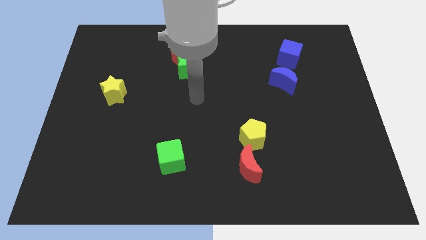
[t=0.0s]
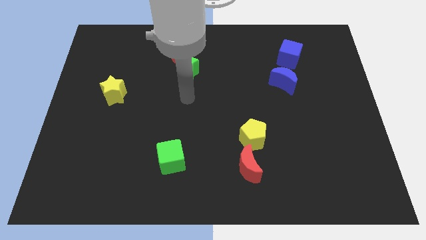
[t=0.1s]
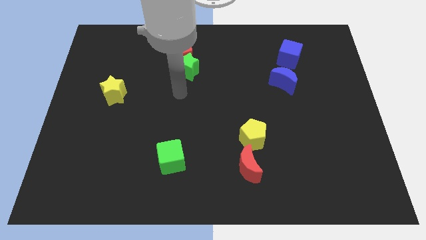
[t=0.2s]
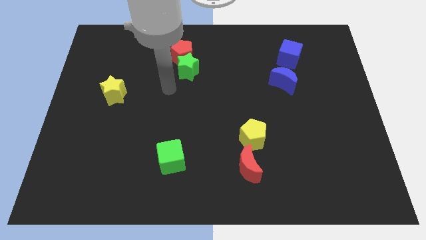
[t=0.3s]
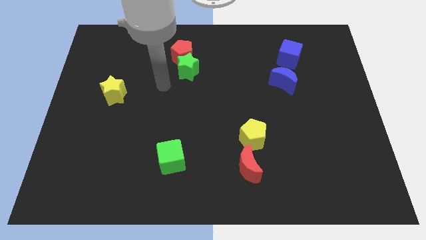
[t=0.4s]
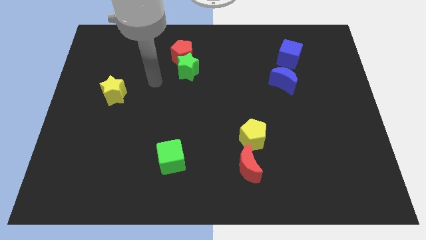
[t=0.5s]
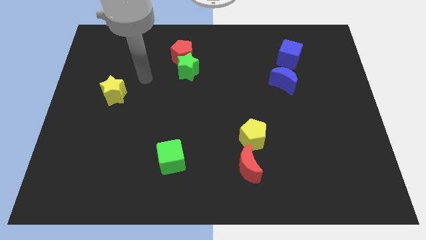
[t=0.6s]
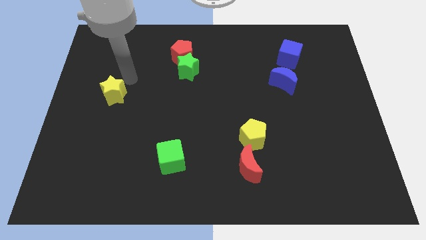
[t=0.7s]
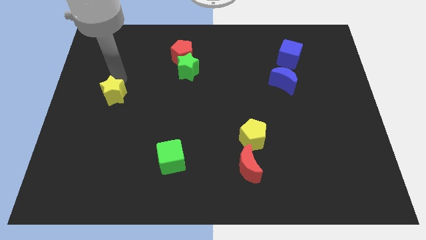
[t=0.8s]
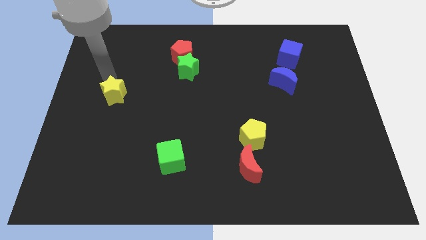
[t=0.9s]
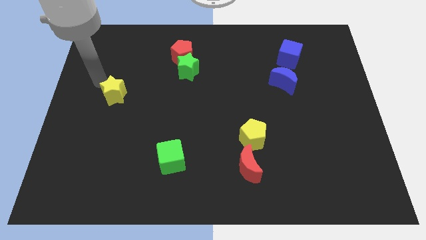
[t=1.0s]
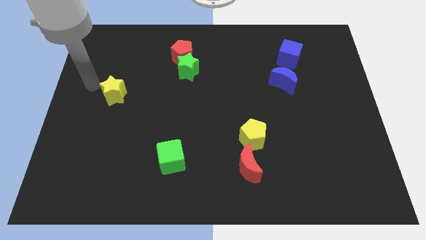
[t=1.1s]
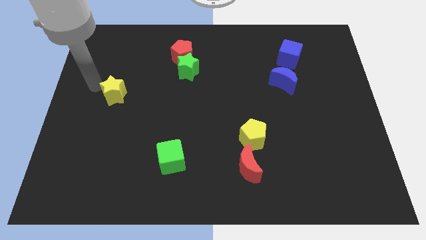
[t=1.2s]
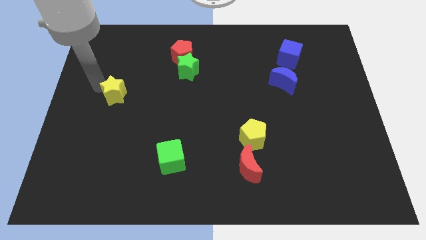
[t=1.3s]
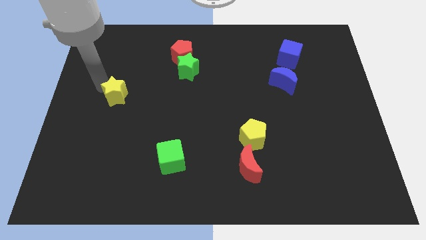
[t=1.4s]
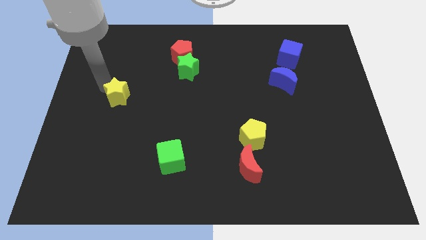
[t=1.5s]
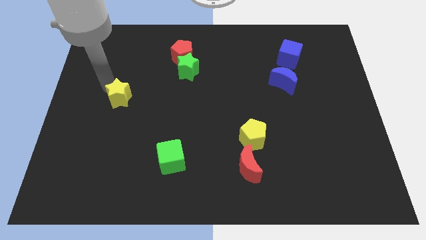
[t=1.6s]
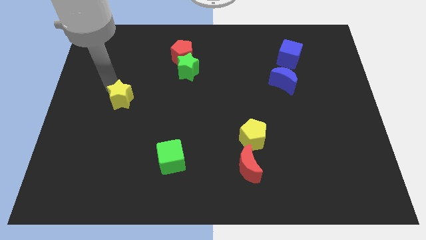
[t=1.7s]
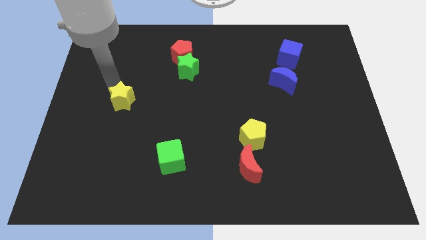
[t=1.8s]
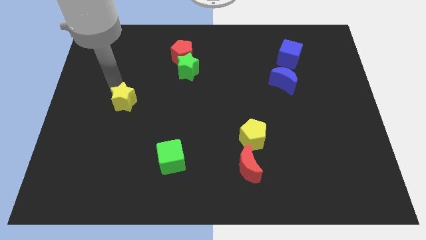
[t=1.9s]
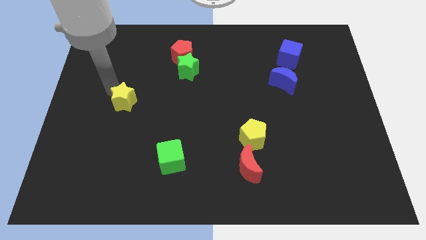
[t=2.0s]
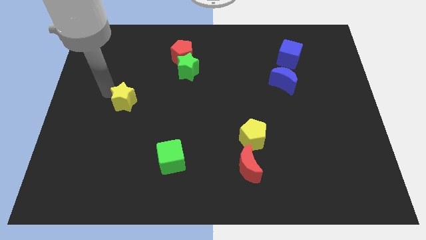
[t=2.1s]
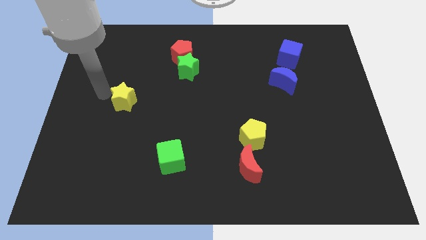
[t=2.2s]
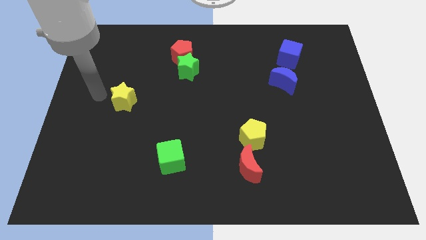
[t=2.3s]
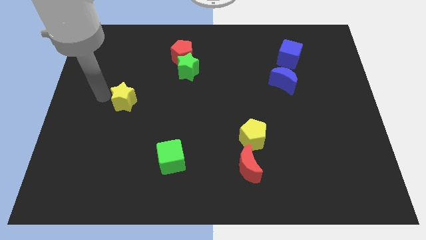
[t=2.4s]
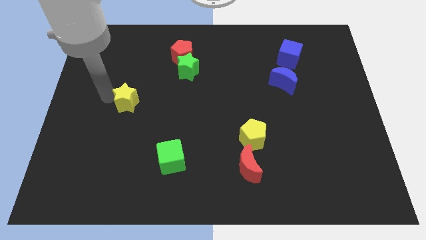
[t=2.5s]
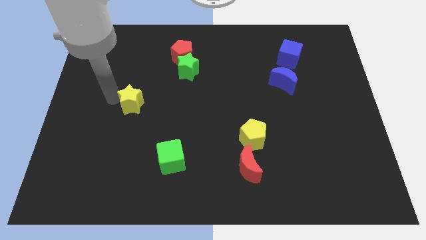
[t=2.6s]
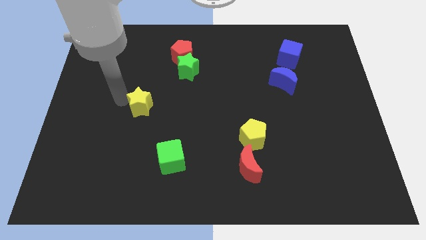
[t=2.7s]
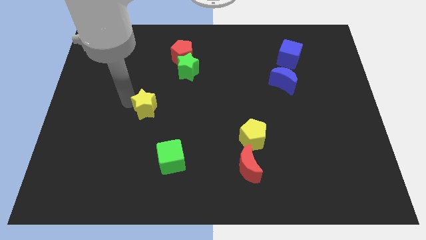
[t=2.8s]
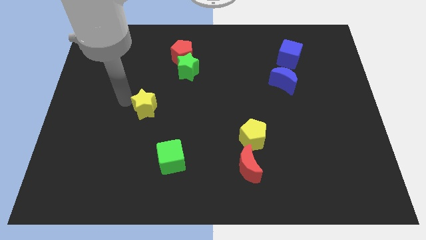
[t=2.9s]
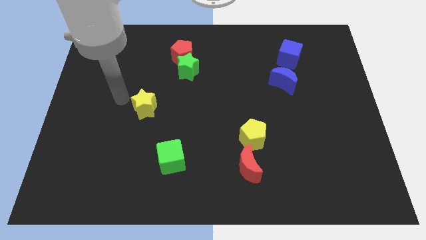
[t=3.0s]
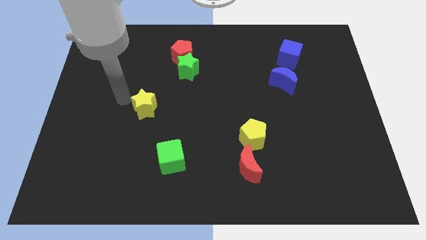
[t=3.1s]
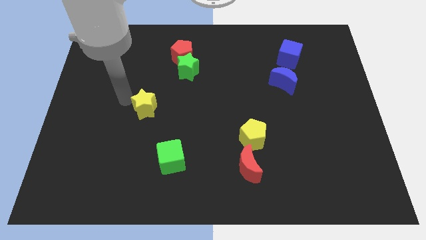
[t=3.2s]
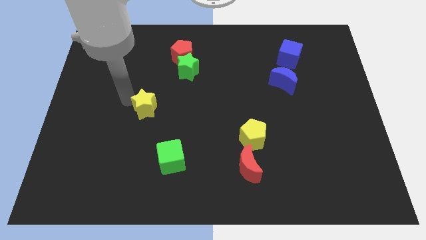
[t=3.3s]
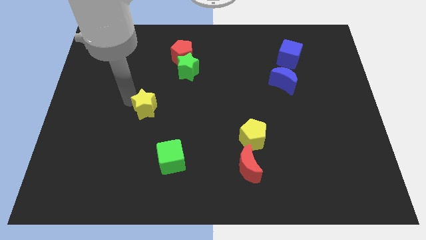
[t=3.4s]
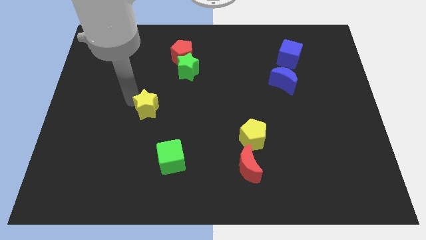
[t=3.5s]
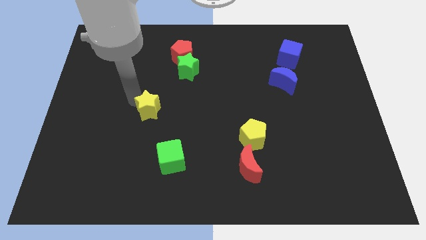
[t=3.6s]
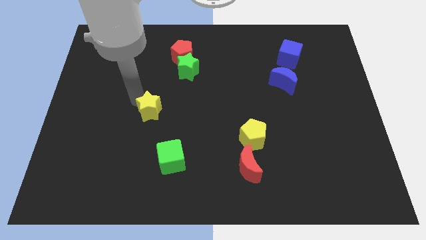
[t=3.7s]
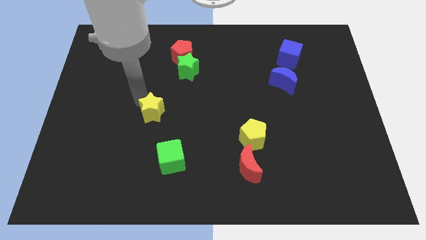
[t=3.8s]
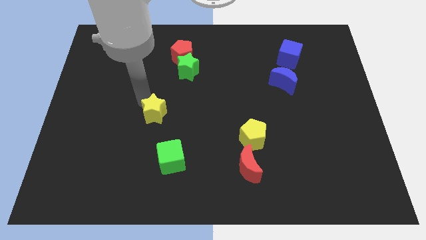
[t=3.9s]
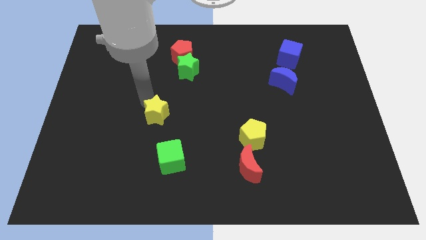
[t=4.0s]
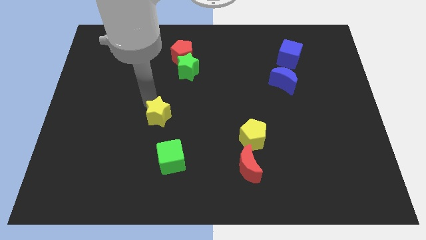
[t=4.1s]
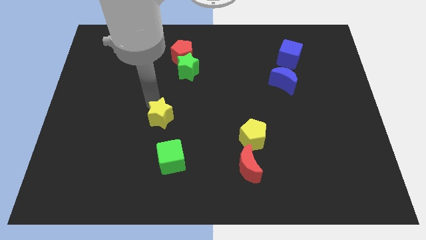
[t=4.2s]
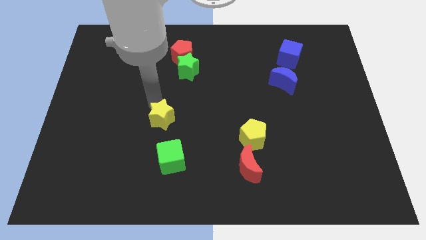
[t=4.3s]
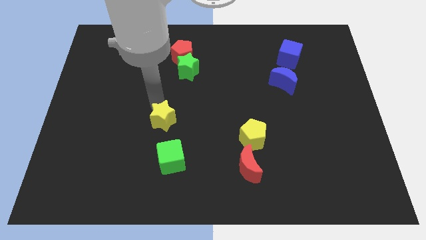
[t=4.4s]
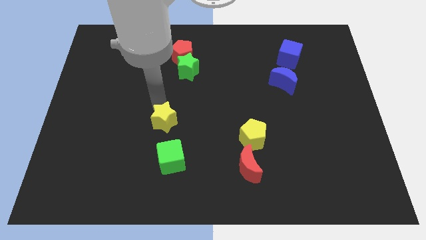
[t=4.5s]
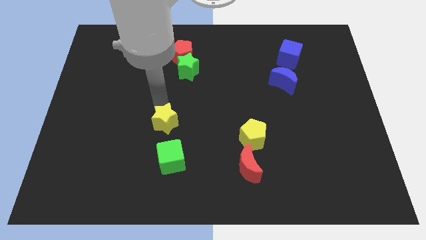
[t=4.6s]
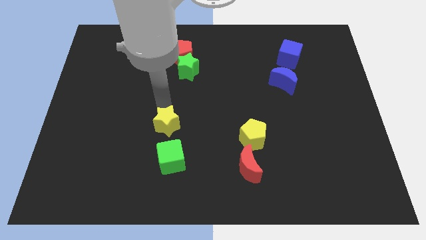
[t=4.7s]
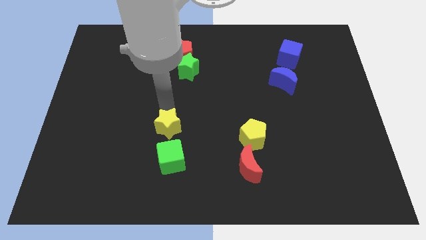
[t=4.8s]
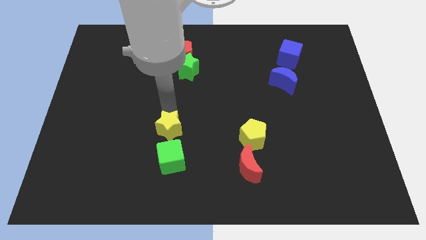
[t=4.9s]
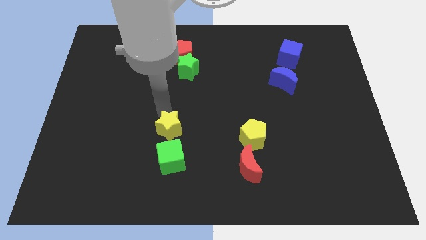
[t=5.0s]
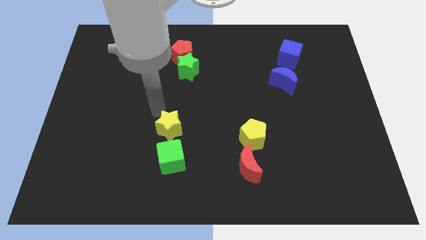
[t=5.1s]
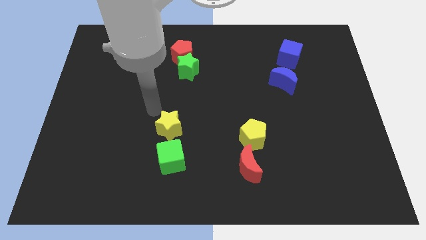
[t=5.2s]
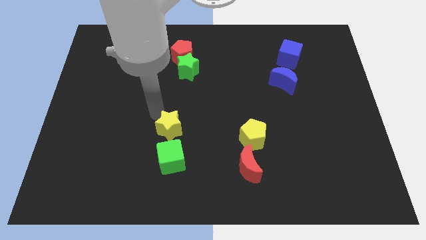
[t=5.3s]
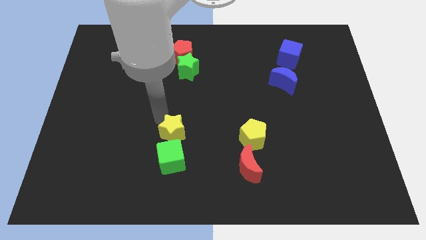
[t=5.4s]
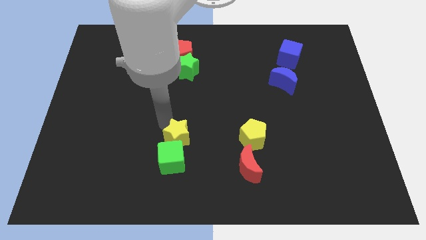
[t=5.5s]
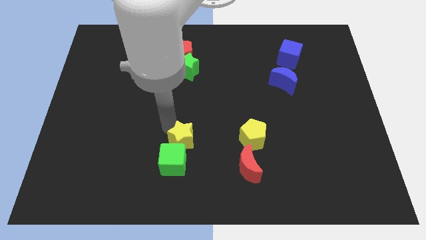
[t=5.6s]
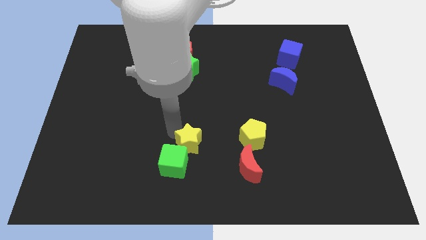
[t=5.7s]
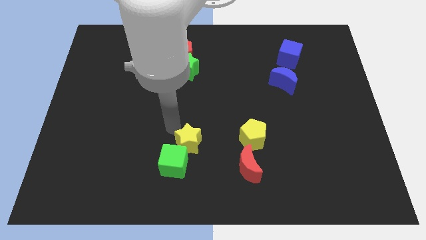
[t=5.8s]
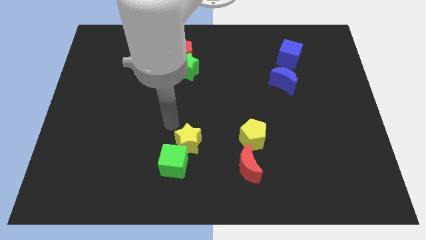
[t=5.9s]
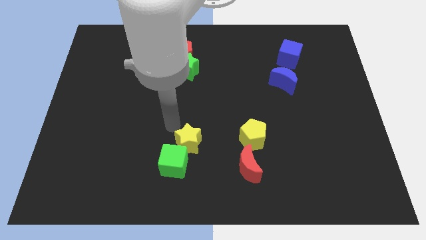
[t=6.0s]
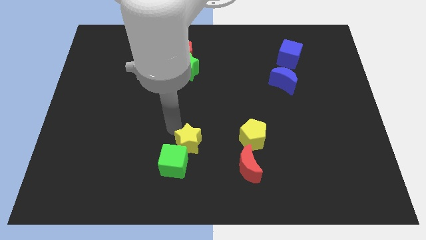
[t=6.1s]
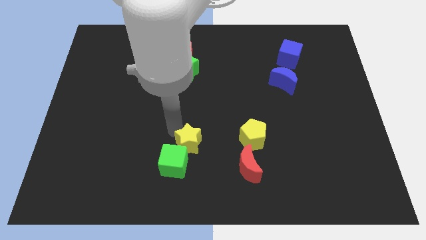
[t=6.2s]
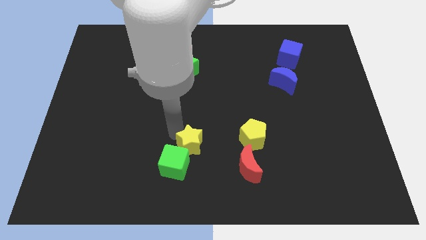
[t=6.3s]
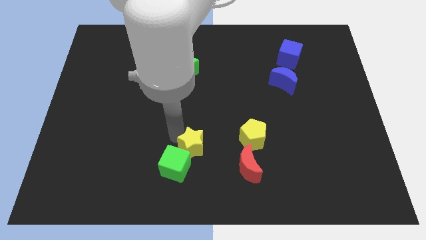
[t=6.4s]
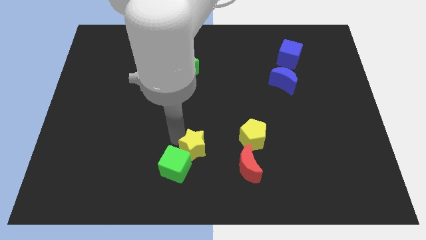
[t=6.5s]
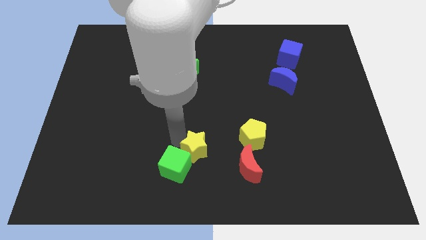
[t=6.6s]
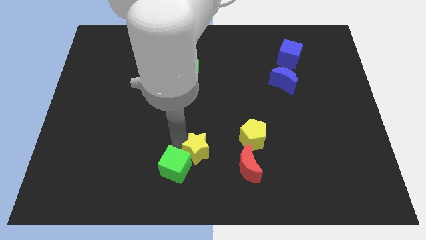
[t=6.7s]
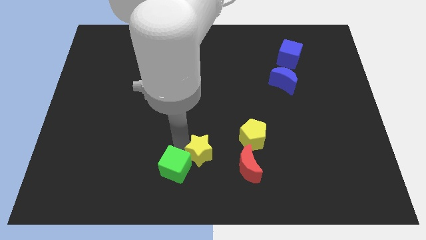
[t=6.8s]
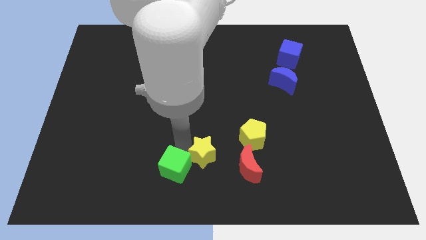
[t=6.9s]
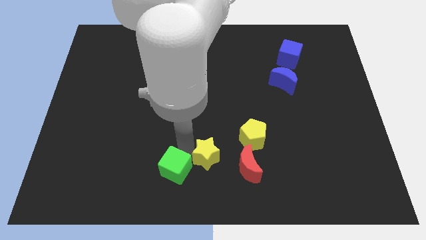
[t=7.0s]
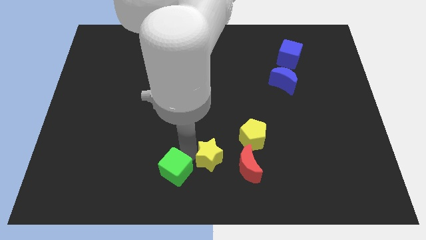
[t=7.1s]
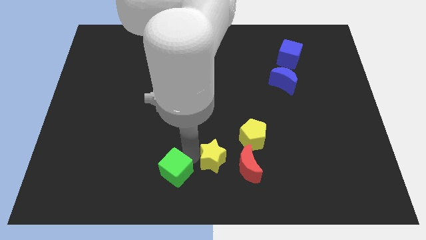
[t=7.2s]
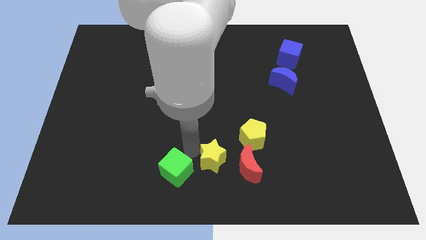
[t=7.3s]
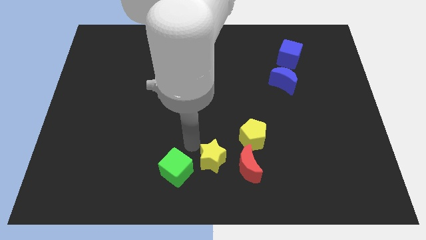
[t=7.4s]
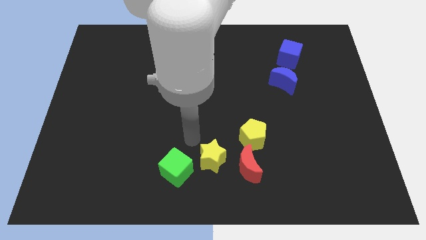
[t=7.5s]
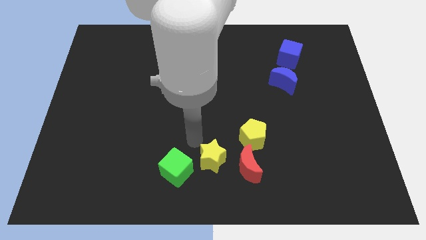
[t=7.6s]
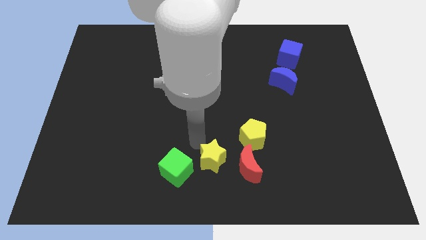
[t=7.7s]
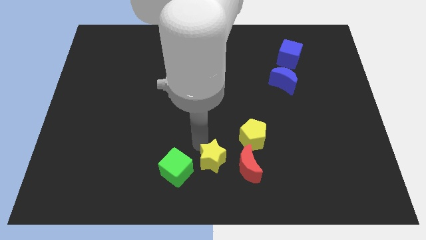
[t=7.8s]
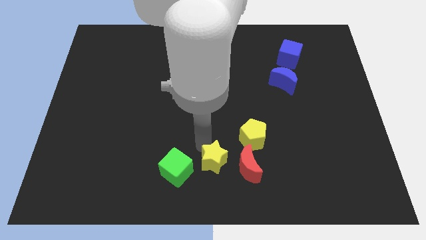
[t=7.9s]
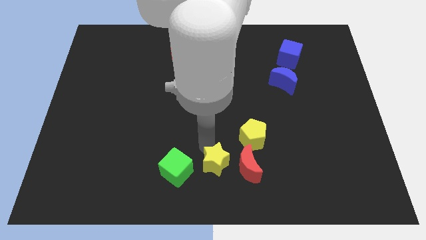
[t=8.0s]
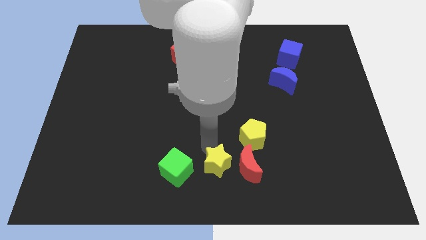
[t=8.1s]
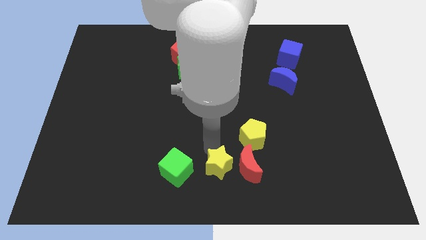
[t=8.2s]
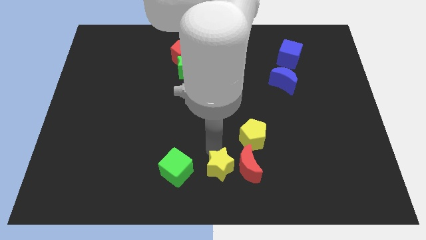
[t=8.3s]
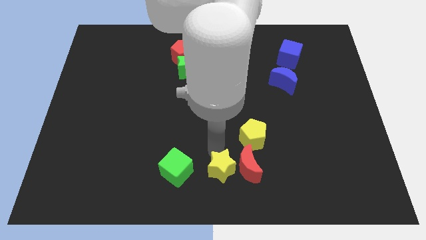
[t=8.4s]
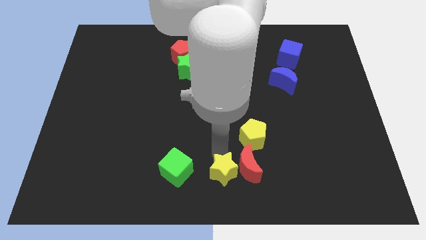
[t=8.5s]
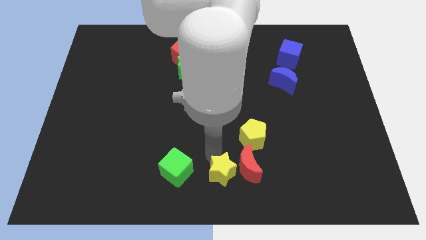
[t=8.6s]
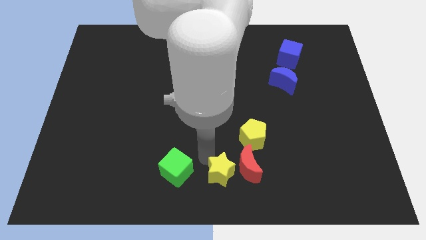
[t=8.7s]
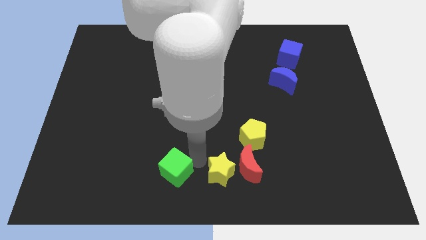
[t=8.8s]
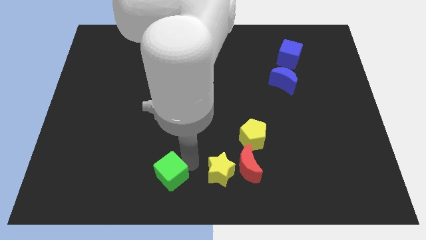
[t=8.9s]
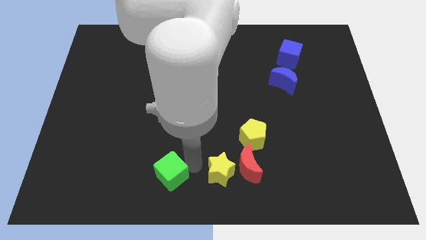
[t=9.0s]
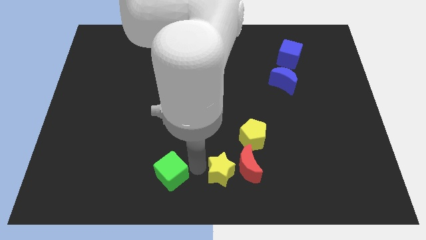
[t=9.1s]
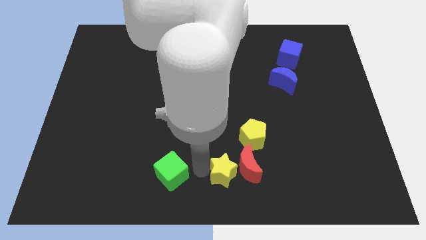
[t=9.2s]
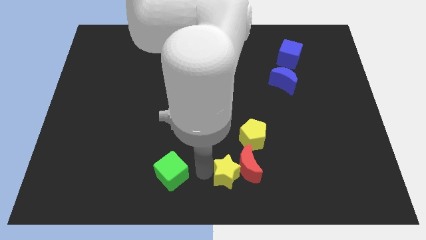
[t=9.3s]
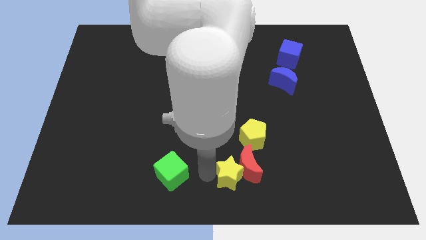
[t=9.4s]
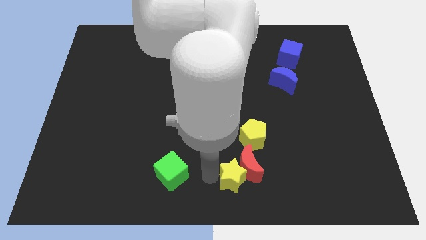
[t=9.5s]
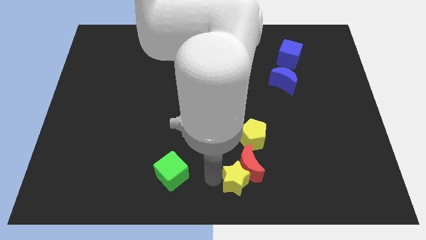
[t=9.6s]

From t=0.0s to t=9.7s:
slide the yellow star to the bottom side of the yellow pentagon
